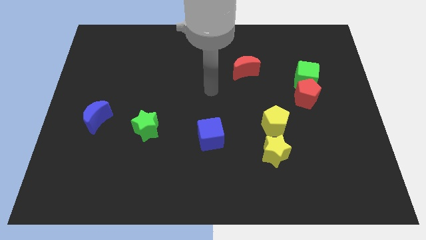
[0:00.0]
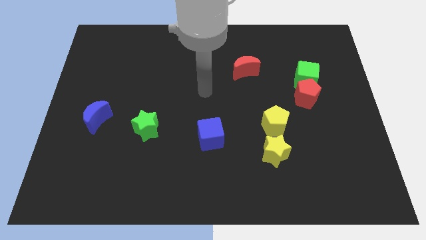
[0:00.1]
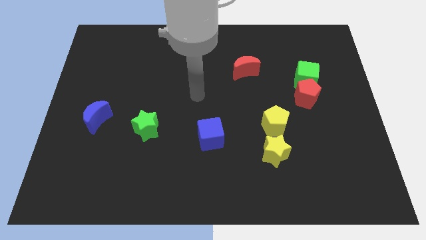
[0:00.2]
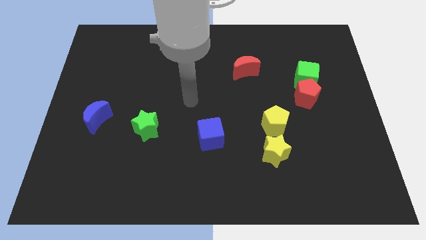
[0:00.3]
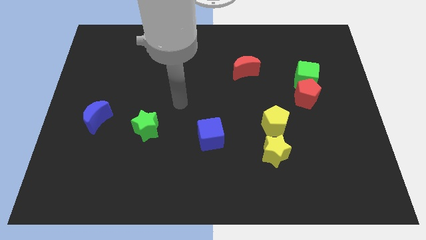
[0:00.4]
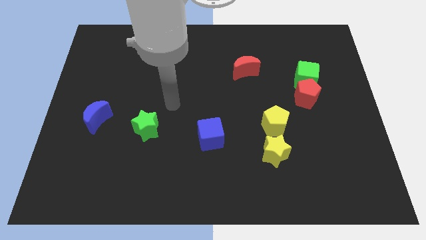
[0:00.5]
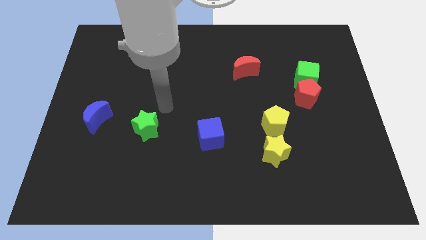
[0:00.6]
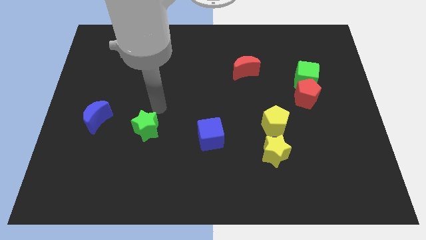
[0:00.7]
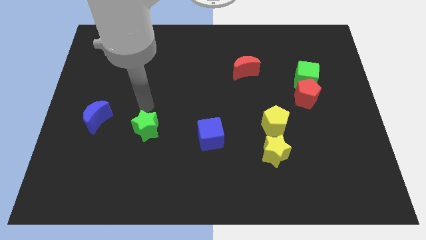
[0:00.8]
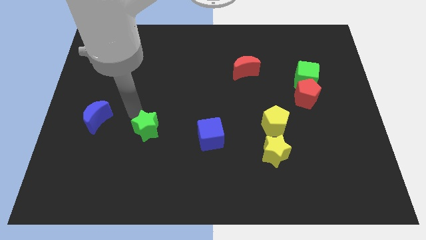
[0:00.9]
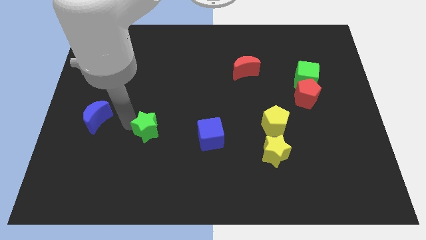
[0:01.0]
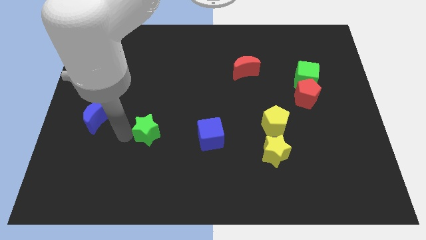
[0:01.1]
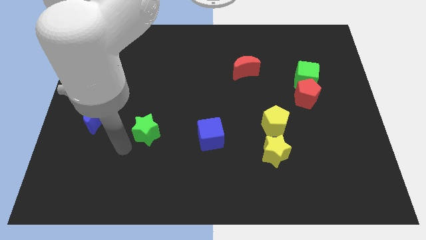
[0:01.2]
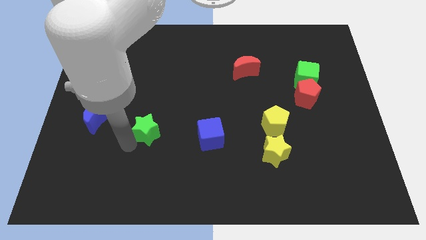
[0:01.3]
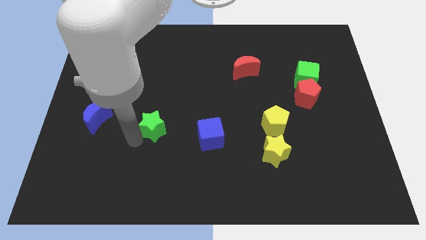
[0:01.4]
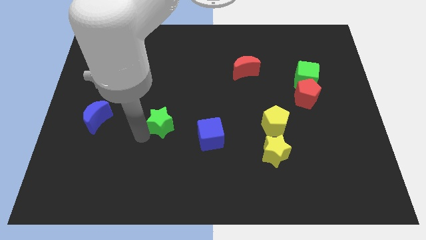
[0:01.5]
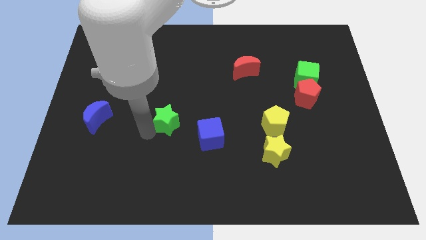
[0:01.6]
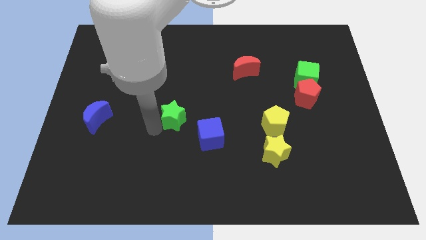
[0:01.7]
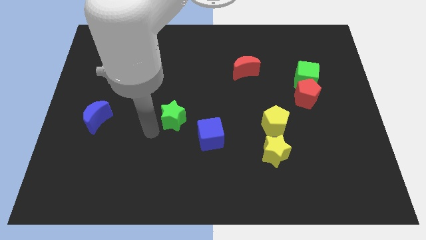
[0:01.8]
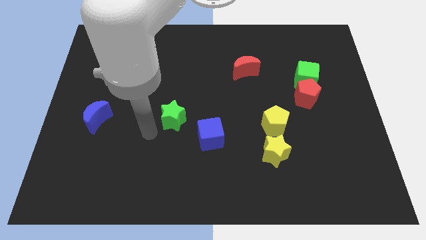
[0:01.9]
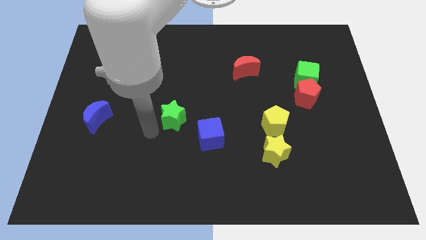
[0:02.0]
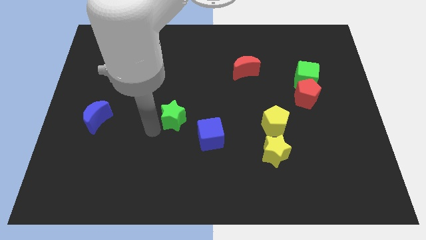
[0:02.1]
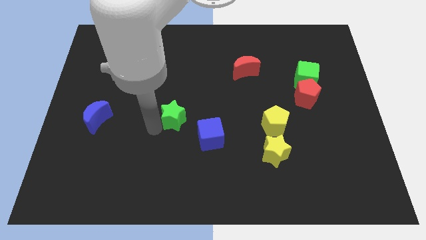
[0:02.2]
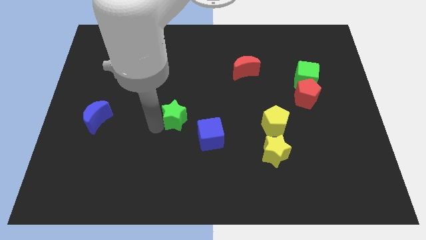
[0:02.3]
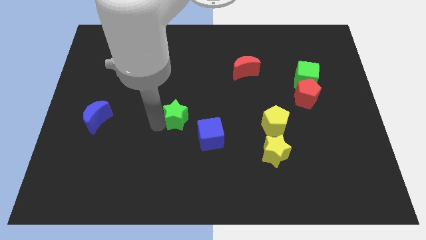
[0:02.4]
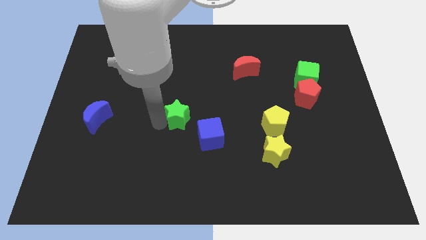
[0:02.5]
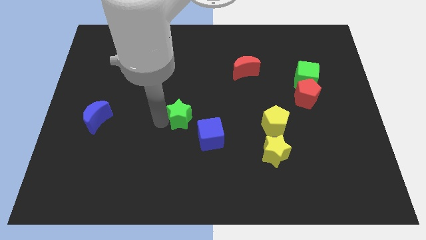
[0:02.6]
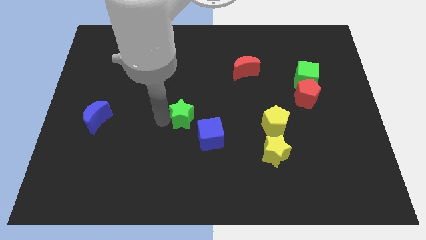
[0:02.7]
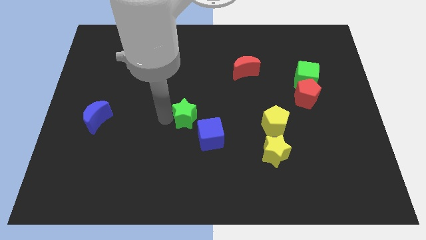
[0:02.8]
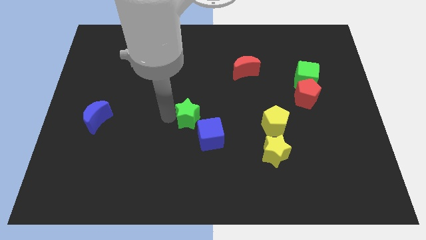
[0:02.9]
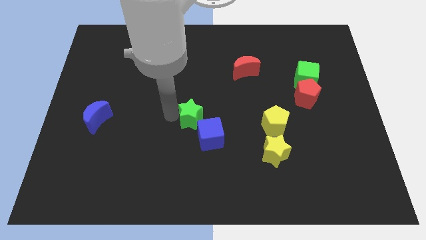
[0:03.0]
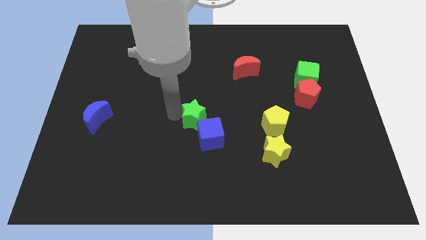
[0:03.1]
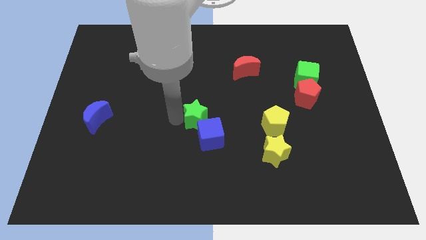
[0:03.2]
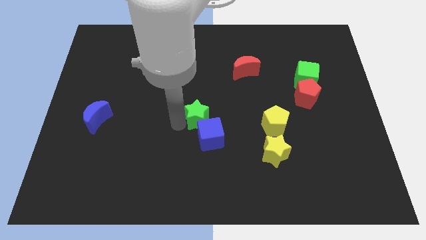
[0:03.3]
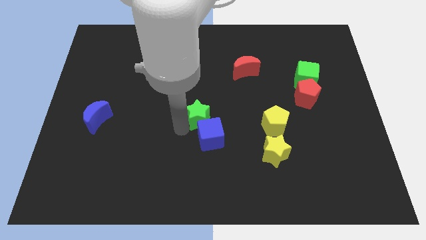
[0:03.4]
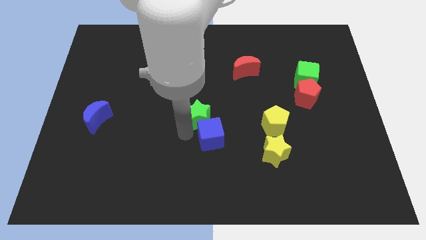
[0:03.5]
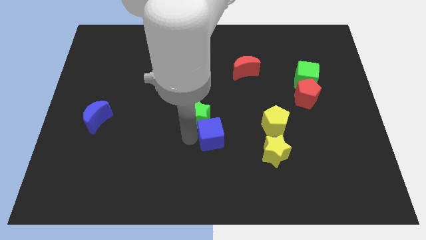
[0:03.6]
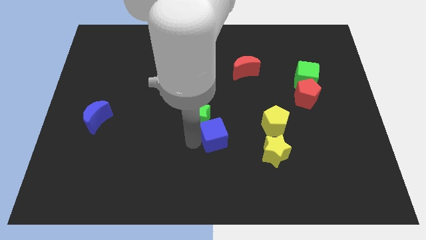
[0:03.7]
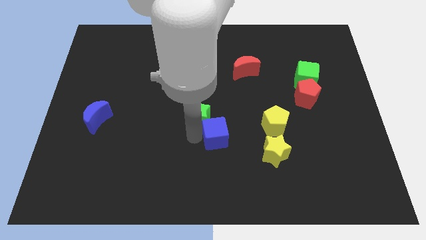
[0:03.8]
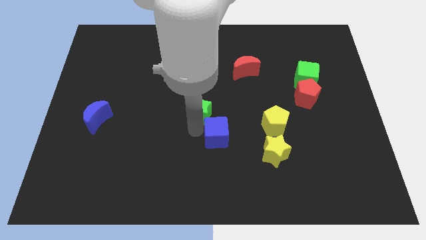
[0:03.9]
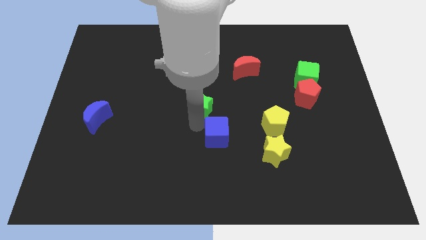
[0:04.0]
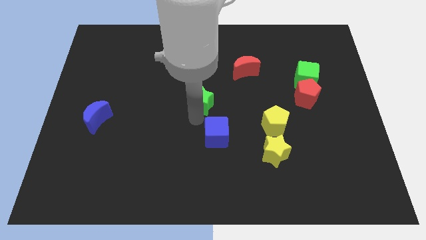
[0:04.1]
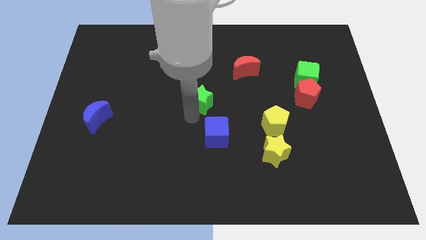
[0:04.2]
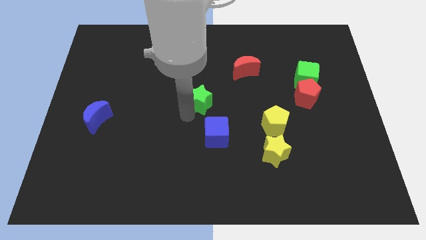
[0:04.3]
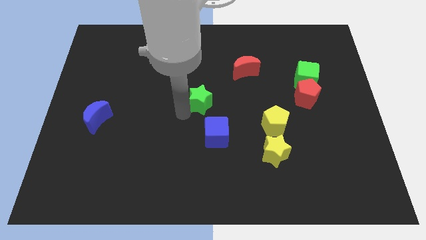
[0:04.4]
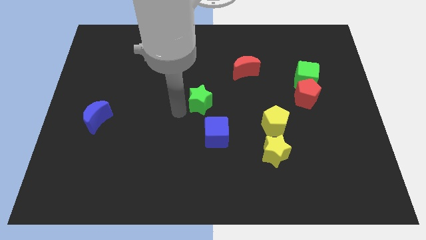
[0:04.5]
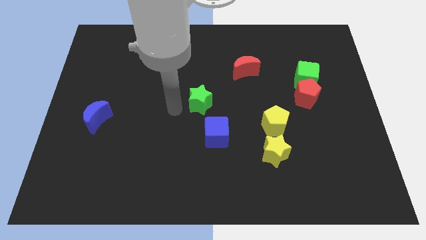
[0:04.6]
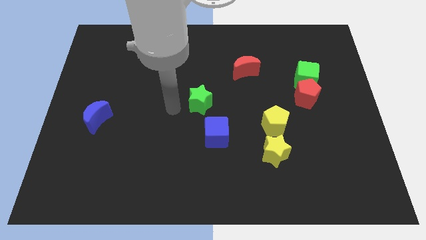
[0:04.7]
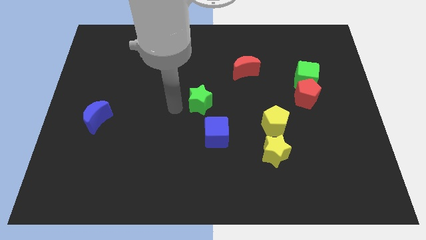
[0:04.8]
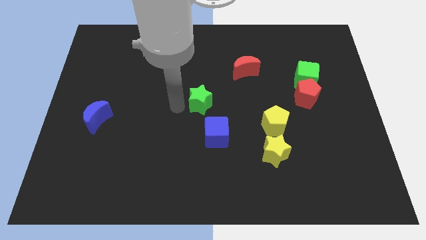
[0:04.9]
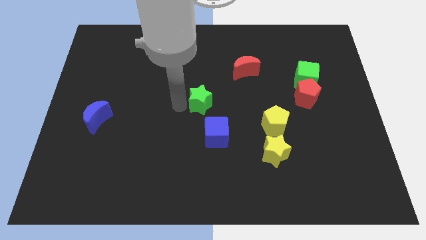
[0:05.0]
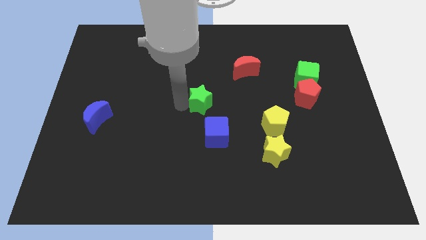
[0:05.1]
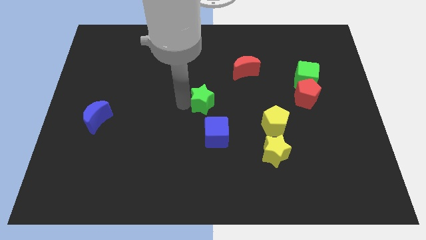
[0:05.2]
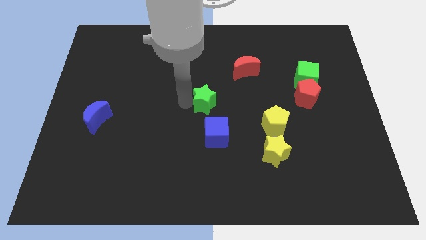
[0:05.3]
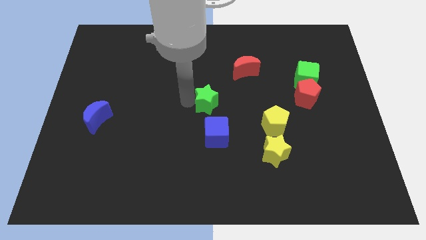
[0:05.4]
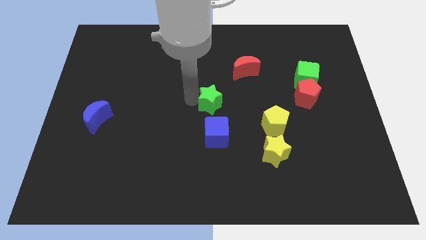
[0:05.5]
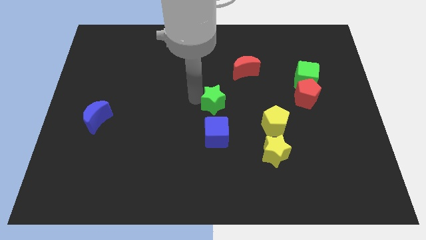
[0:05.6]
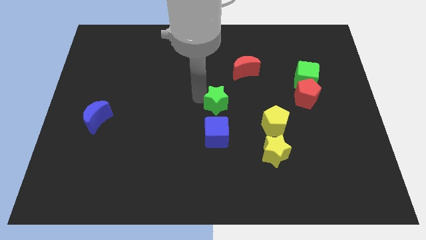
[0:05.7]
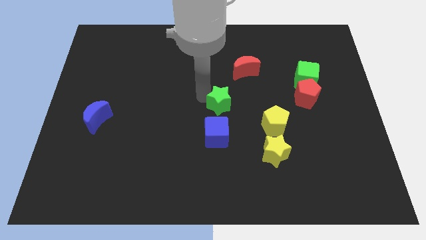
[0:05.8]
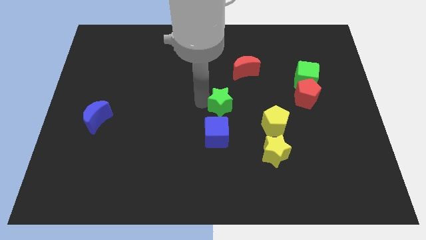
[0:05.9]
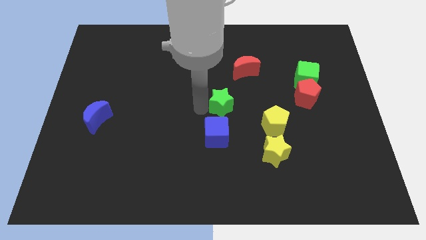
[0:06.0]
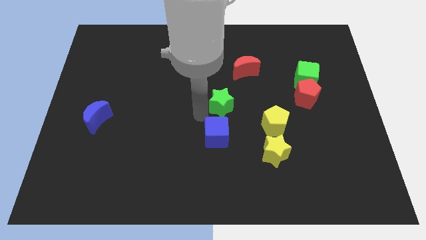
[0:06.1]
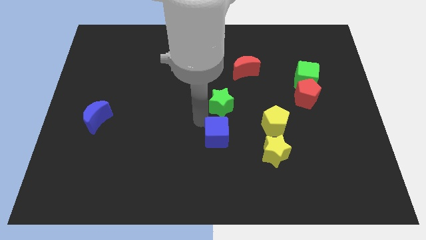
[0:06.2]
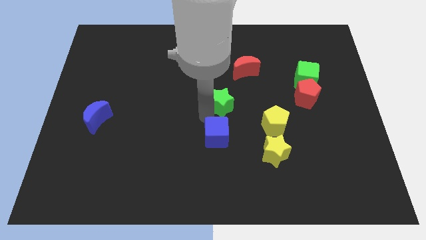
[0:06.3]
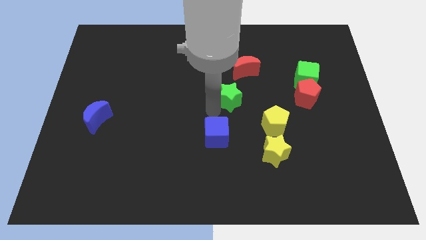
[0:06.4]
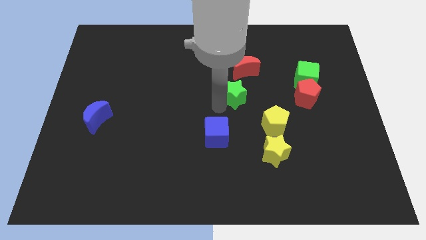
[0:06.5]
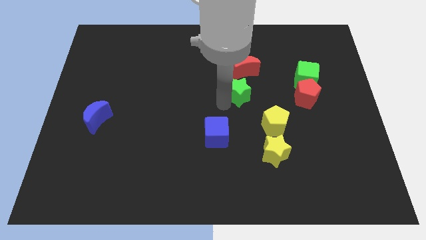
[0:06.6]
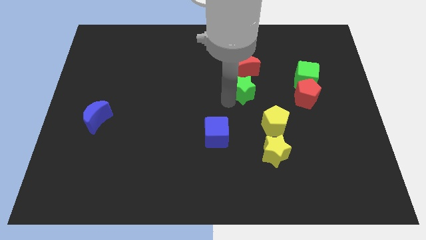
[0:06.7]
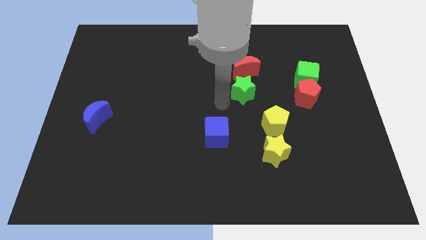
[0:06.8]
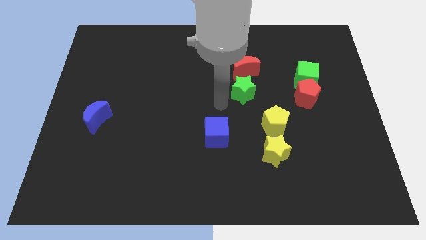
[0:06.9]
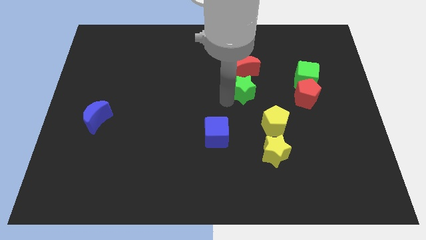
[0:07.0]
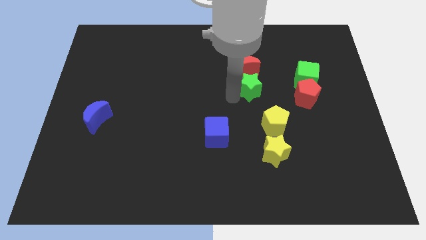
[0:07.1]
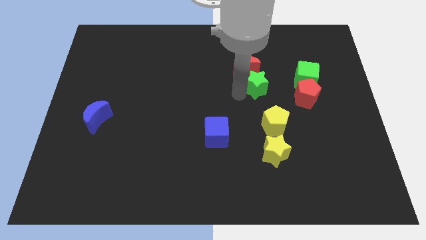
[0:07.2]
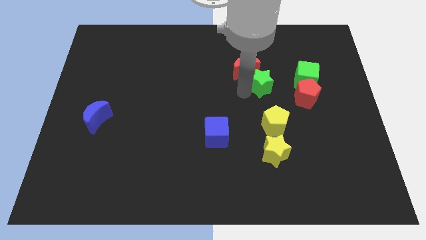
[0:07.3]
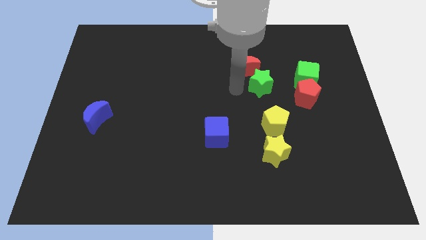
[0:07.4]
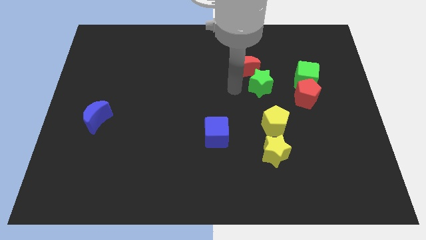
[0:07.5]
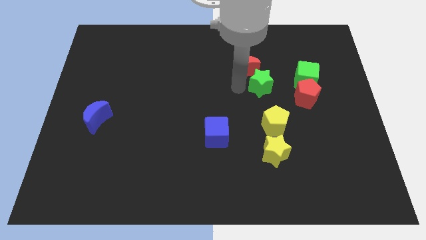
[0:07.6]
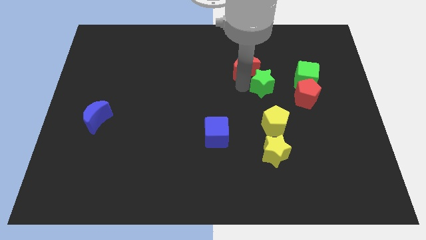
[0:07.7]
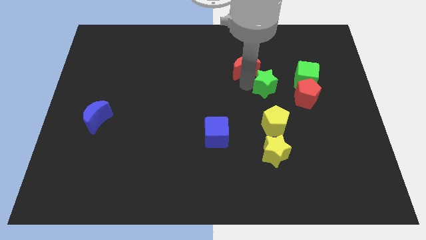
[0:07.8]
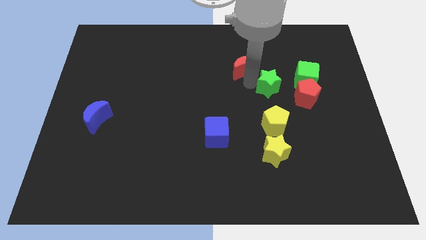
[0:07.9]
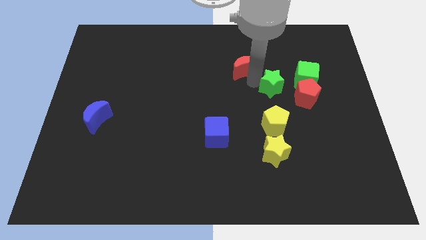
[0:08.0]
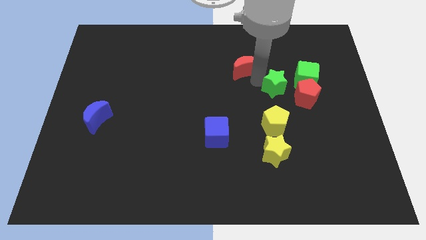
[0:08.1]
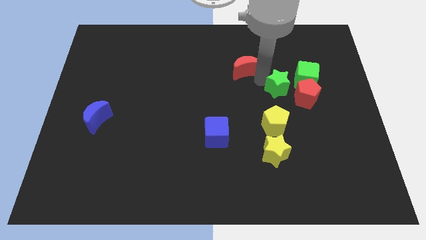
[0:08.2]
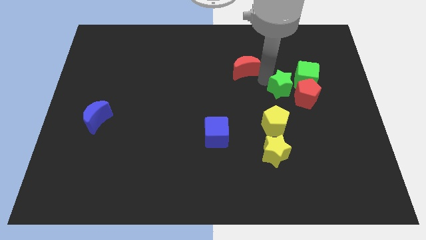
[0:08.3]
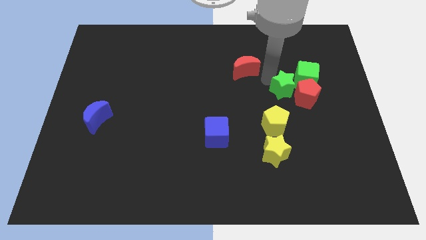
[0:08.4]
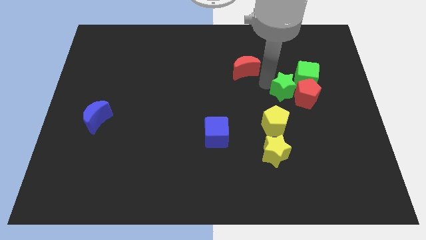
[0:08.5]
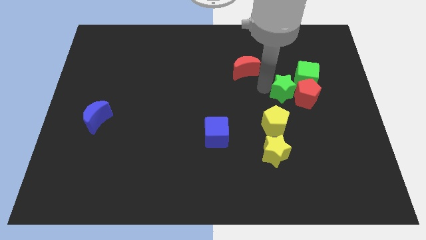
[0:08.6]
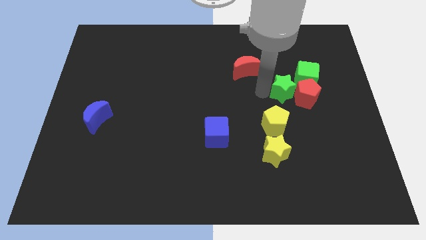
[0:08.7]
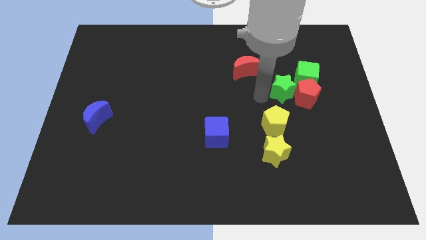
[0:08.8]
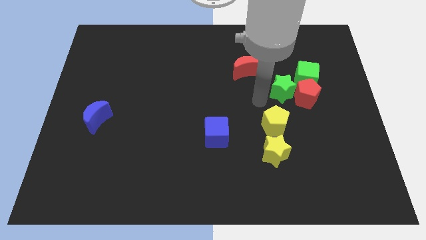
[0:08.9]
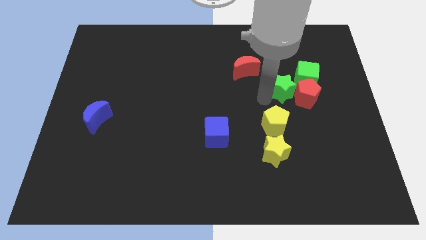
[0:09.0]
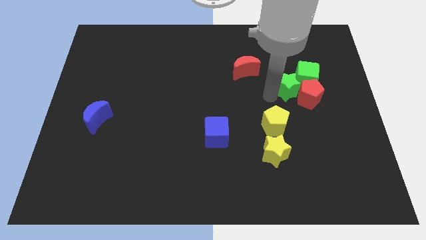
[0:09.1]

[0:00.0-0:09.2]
move the green star to the green cube
